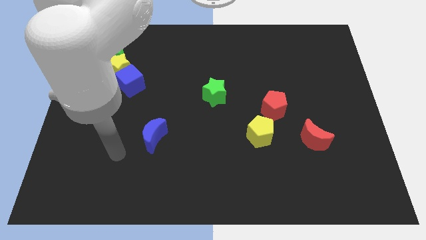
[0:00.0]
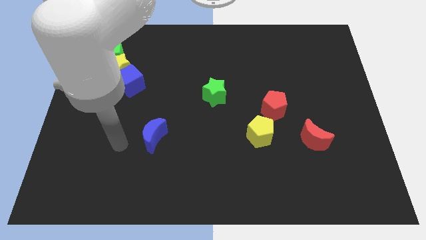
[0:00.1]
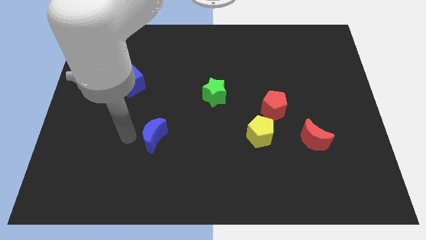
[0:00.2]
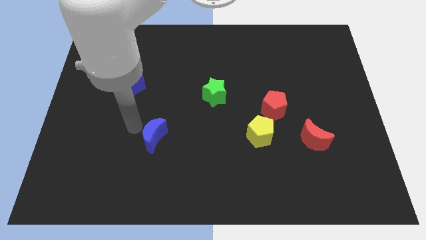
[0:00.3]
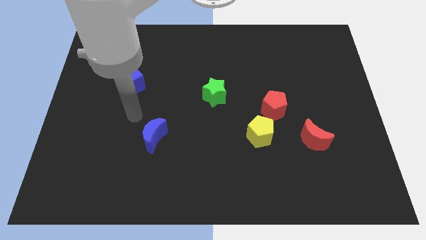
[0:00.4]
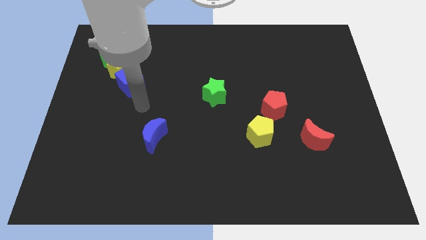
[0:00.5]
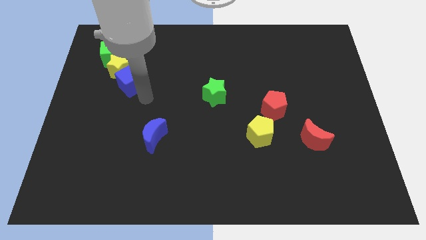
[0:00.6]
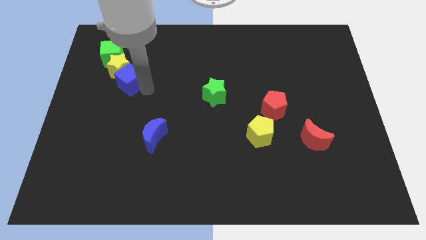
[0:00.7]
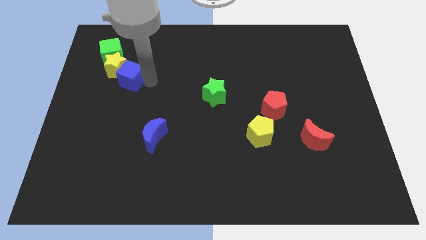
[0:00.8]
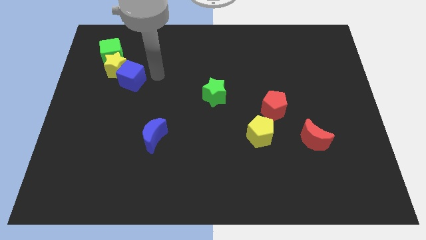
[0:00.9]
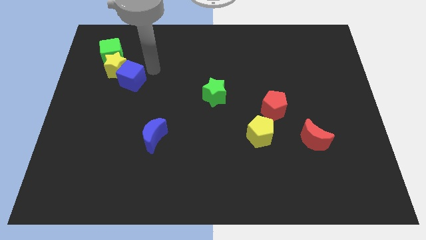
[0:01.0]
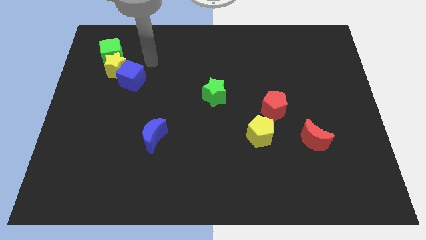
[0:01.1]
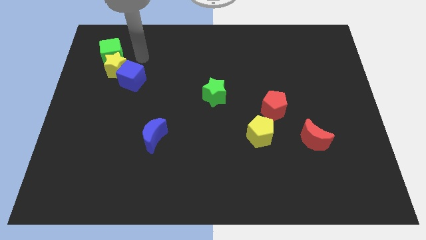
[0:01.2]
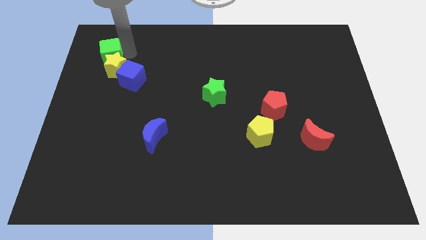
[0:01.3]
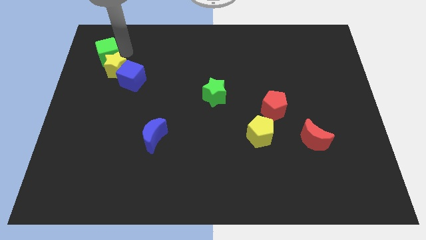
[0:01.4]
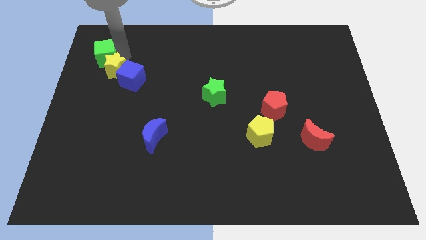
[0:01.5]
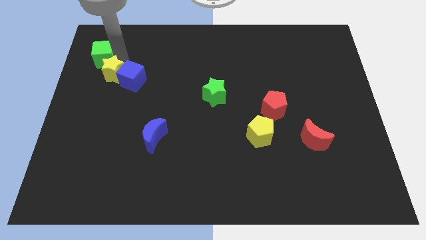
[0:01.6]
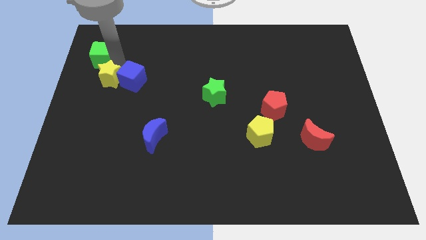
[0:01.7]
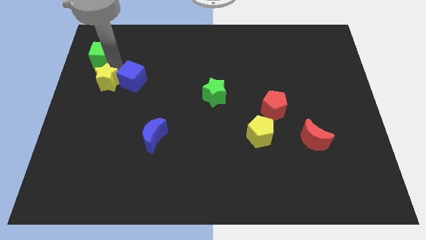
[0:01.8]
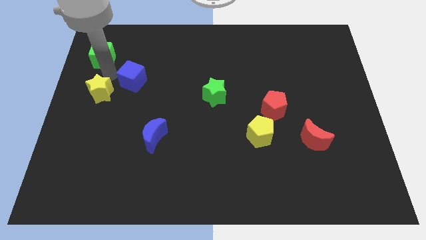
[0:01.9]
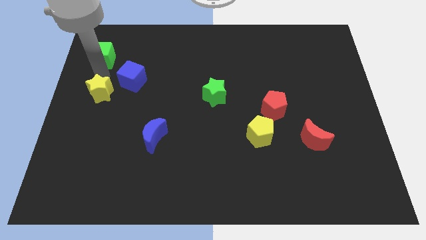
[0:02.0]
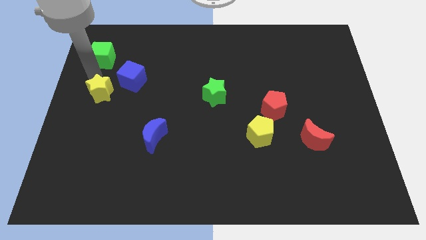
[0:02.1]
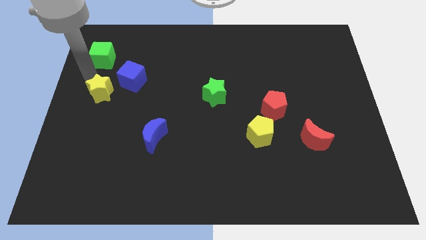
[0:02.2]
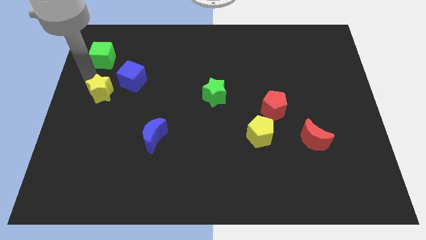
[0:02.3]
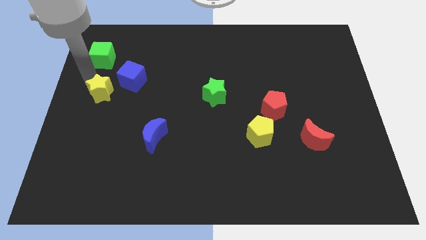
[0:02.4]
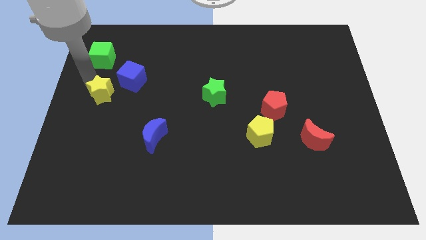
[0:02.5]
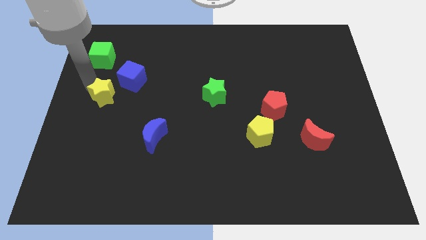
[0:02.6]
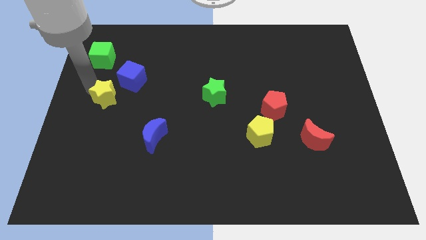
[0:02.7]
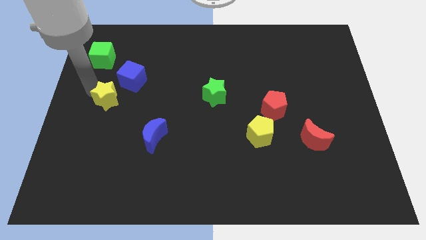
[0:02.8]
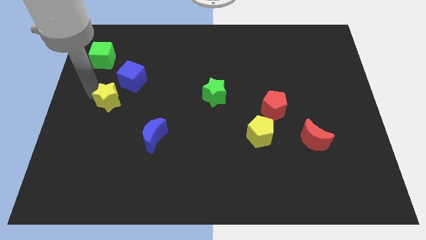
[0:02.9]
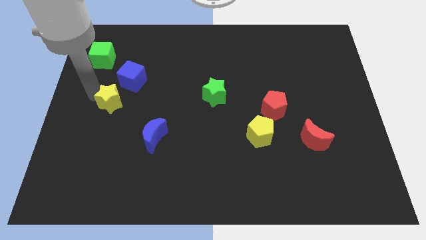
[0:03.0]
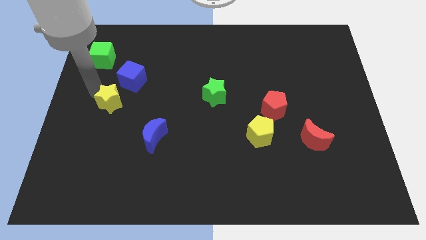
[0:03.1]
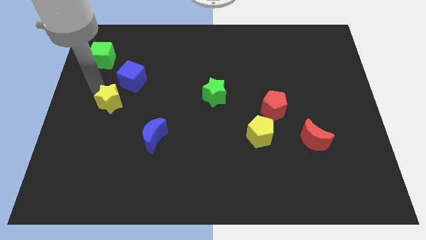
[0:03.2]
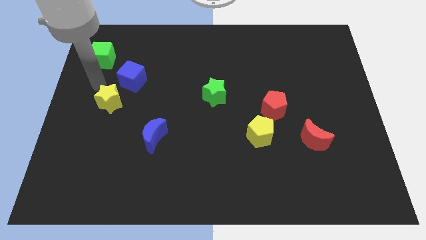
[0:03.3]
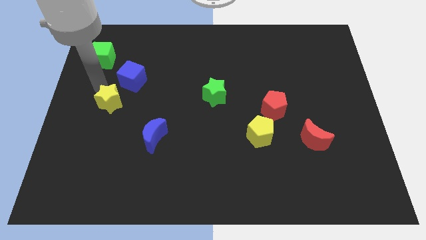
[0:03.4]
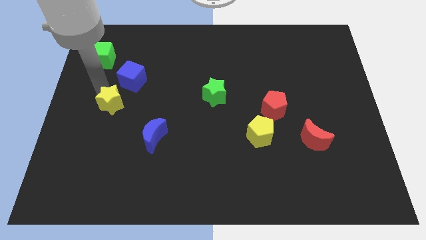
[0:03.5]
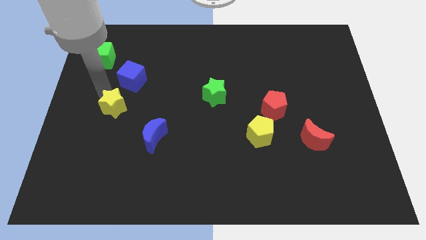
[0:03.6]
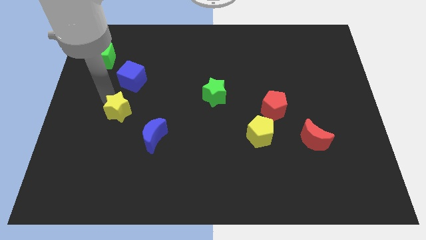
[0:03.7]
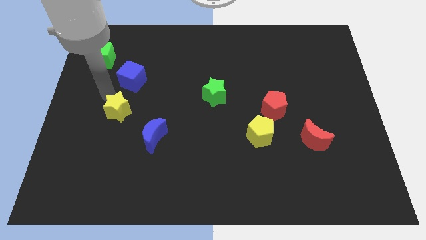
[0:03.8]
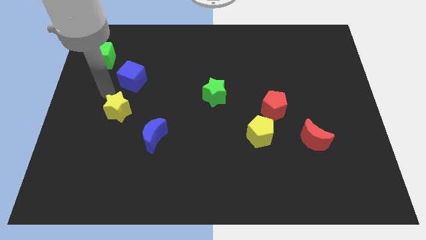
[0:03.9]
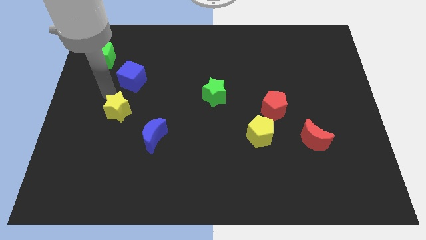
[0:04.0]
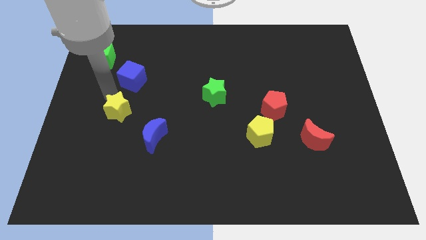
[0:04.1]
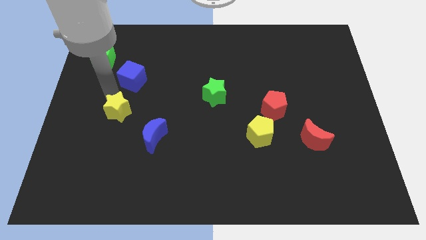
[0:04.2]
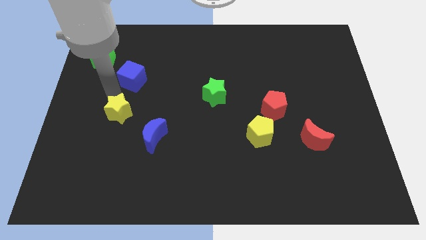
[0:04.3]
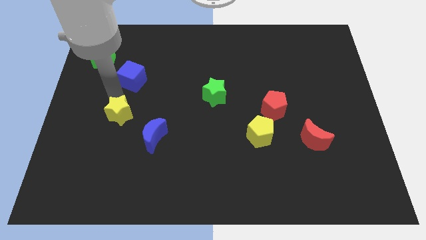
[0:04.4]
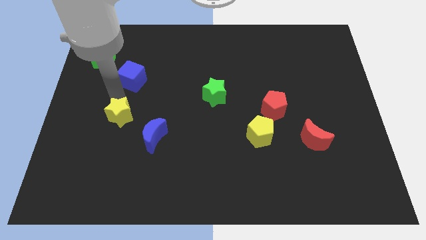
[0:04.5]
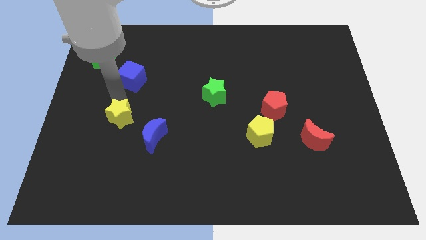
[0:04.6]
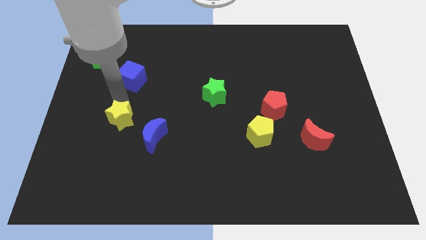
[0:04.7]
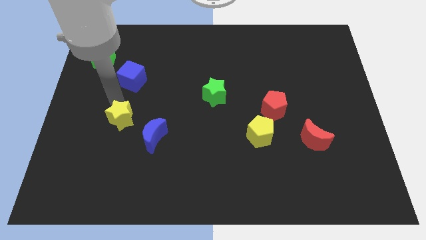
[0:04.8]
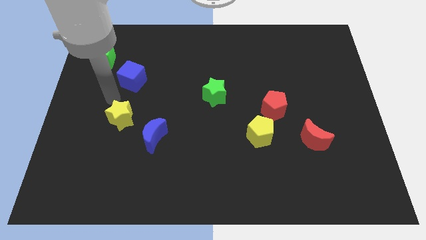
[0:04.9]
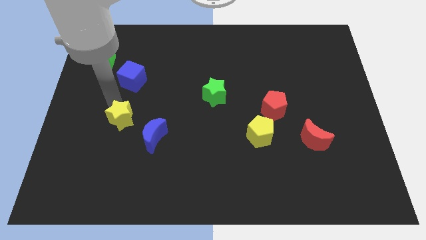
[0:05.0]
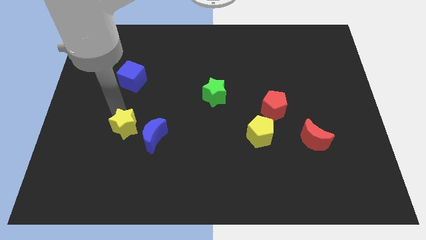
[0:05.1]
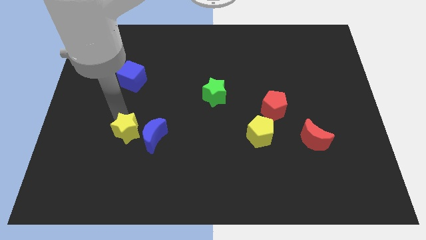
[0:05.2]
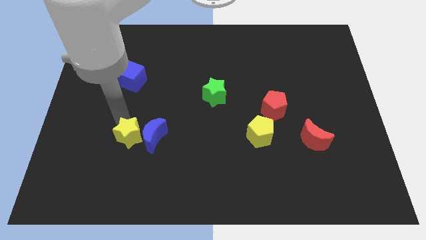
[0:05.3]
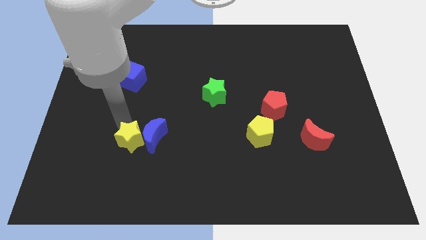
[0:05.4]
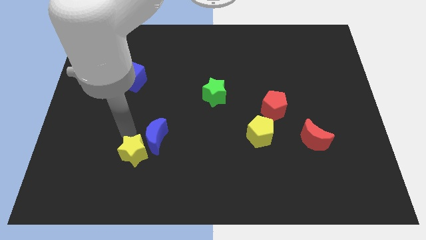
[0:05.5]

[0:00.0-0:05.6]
move the yellow star to the bottom of the blue moon
